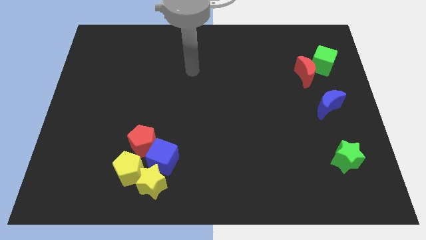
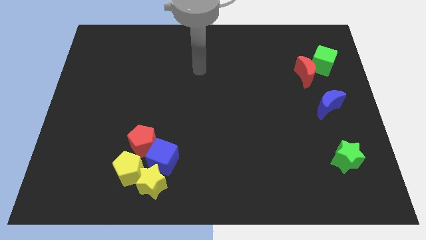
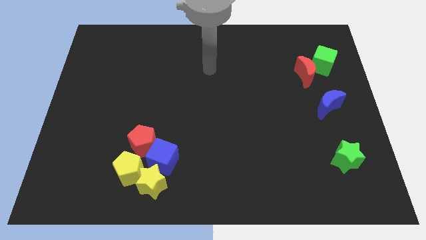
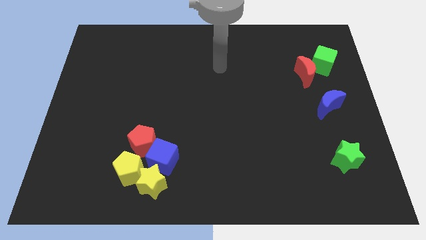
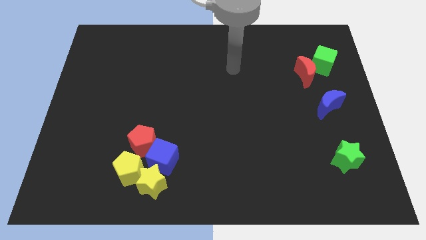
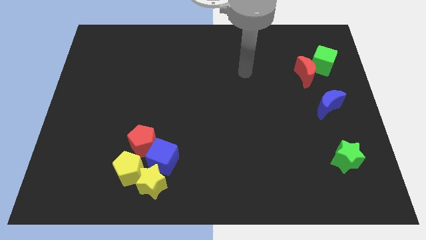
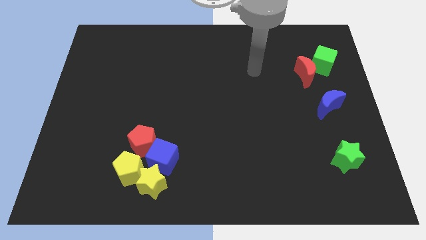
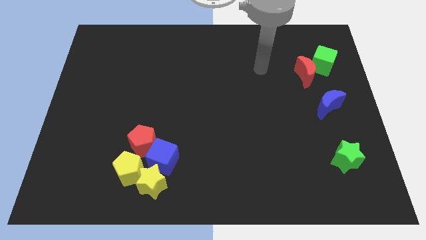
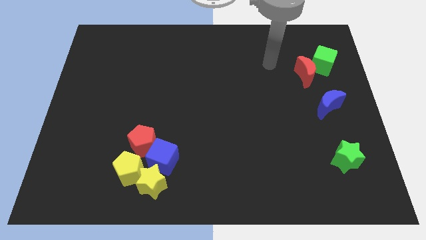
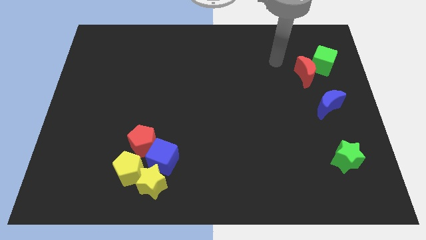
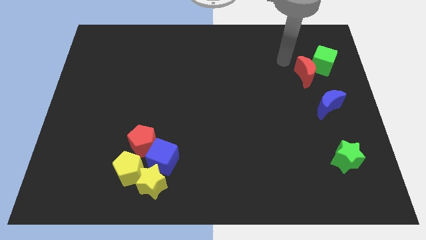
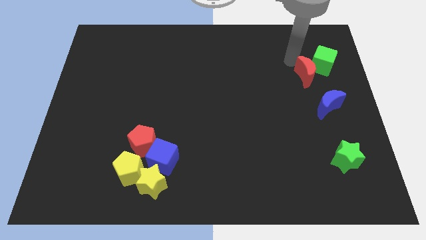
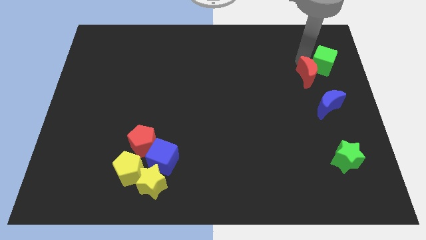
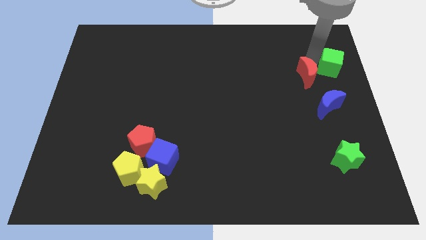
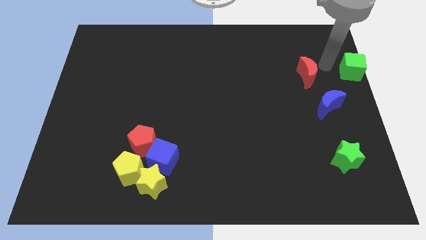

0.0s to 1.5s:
move the red moon away from the green cube

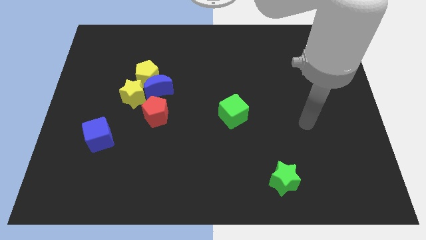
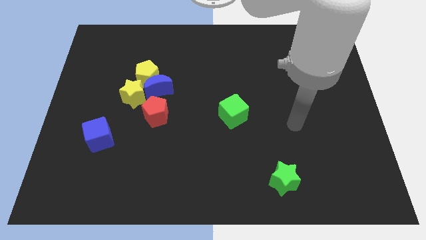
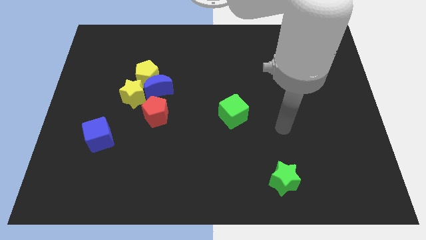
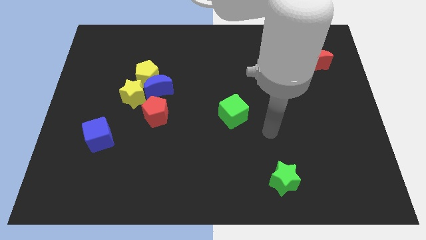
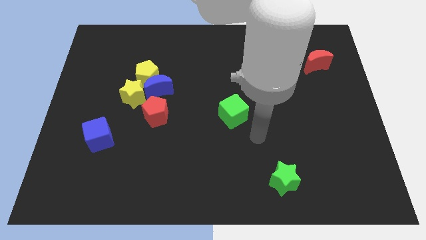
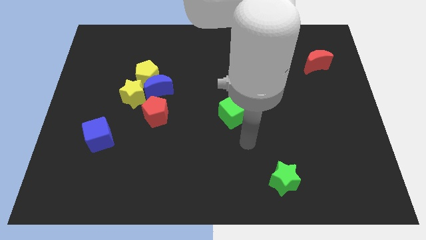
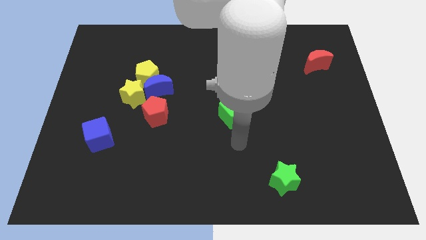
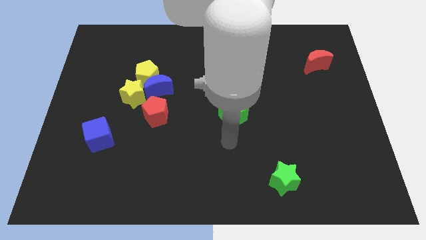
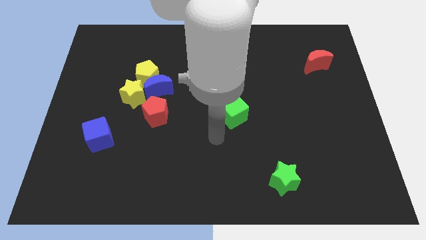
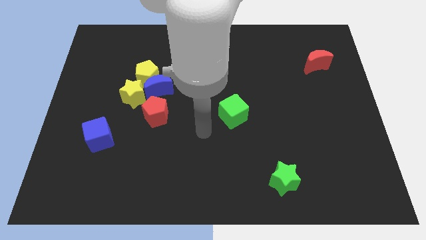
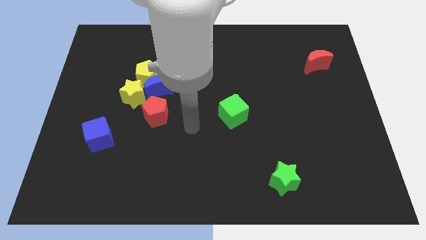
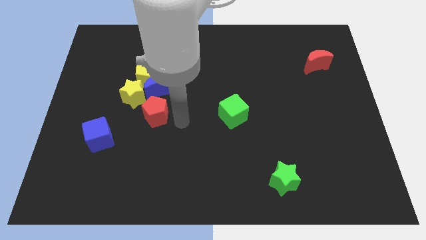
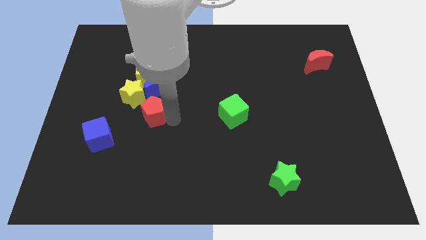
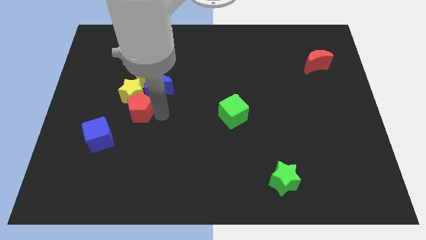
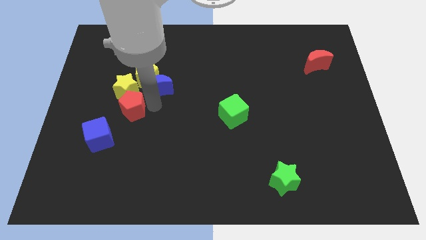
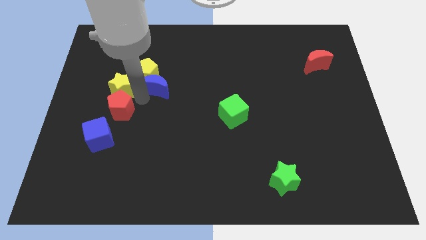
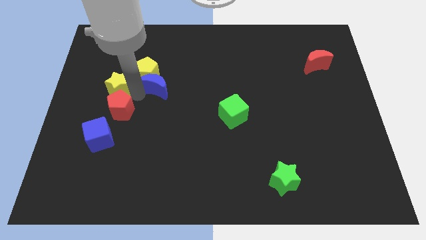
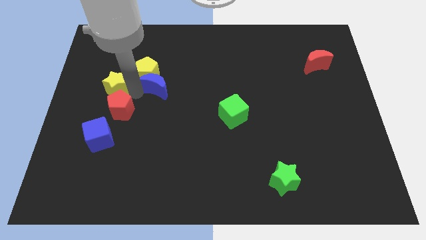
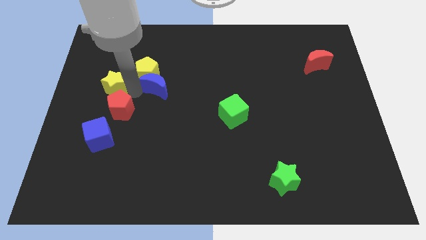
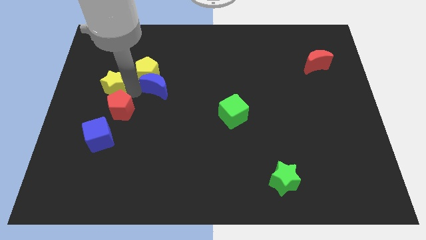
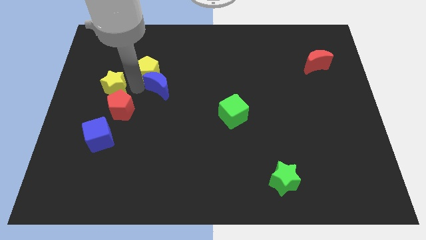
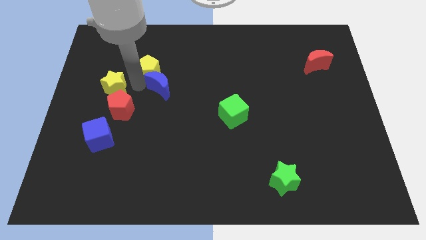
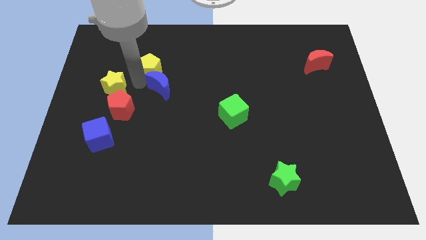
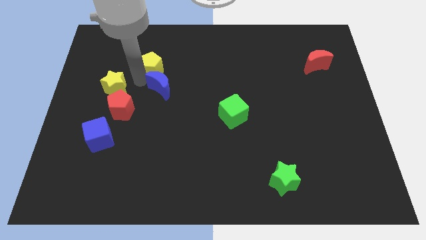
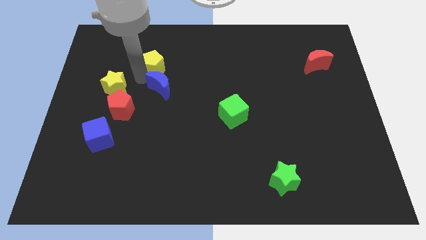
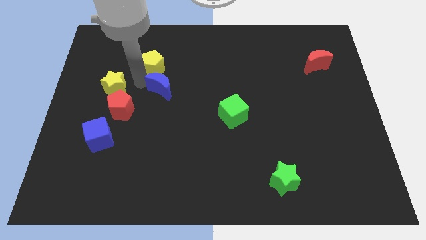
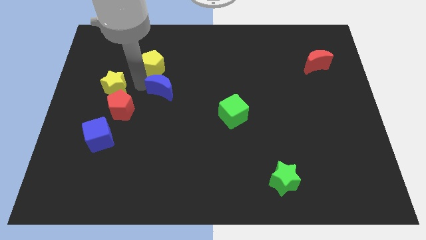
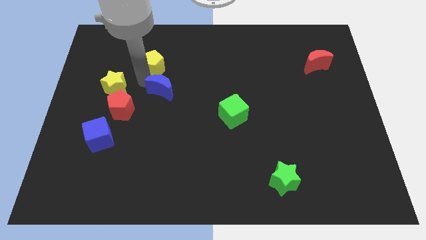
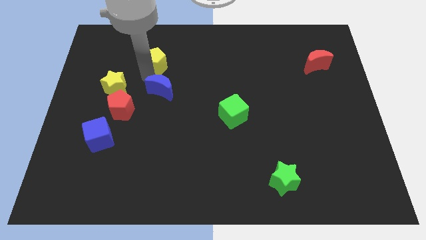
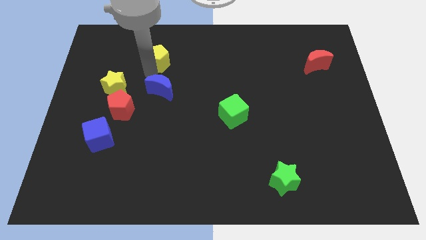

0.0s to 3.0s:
separate the yellow pentagon from the blue moon and yellow star

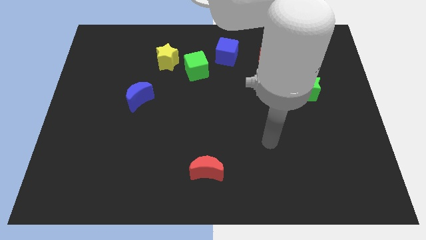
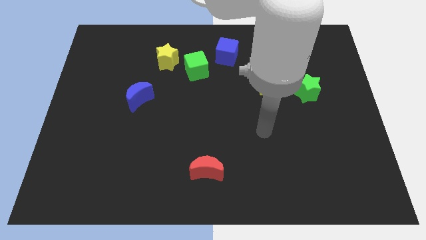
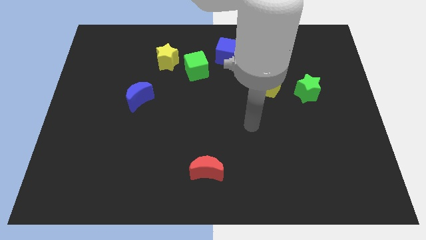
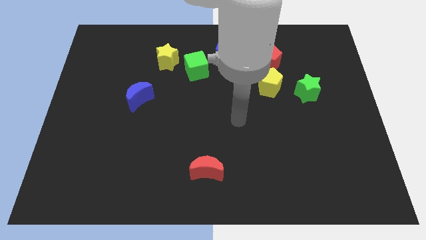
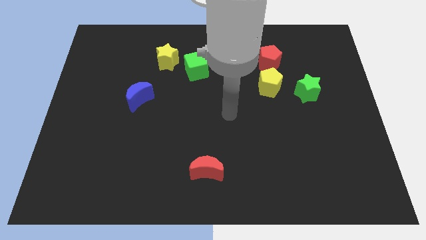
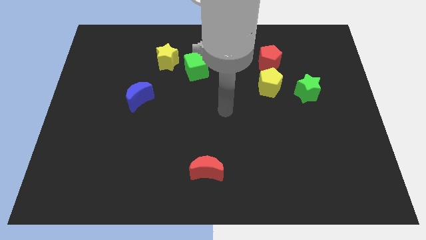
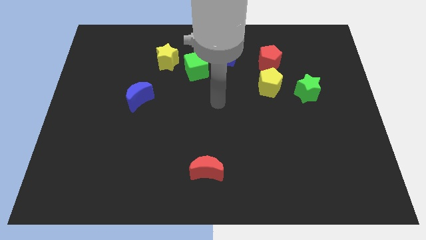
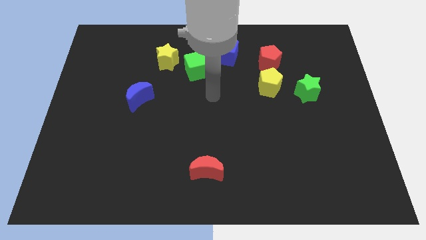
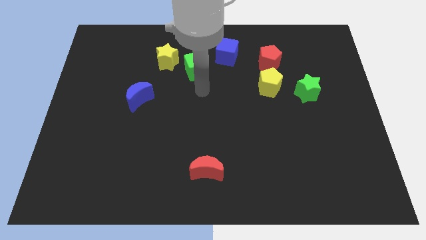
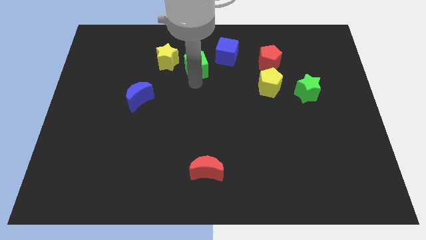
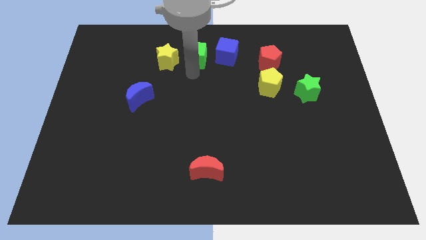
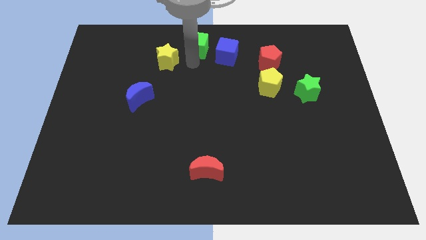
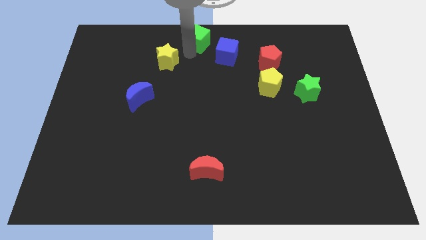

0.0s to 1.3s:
separate the yellow star from the green cube

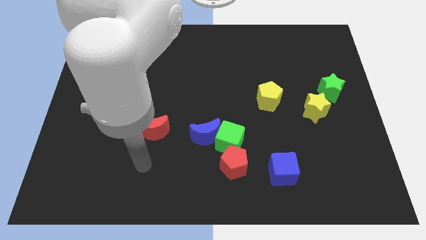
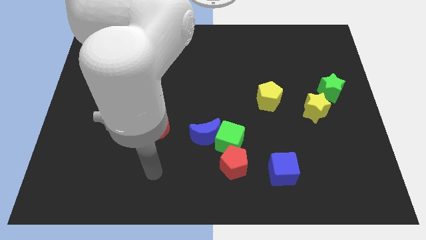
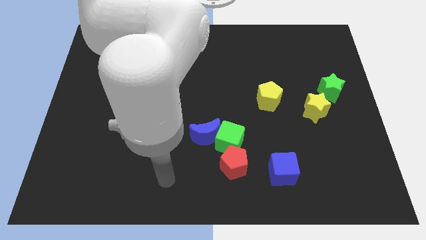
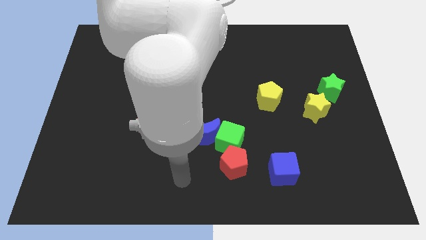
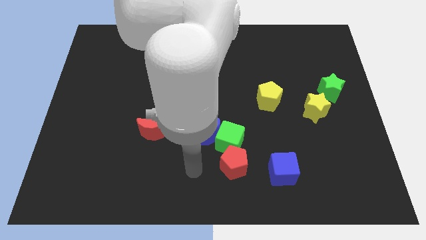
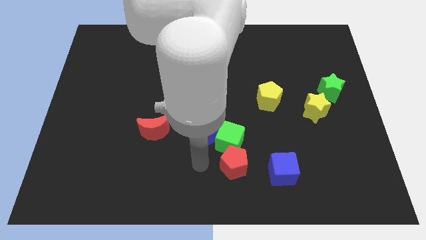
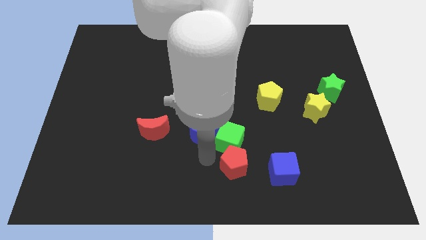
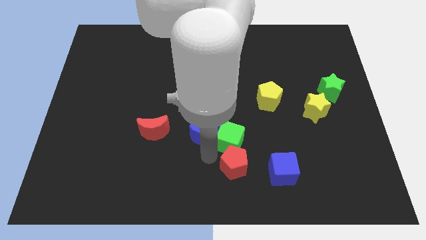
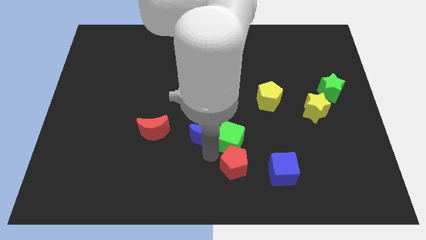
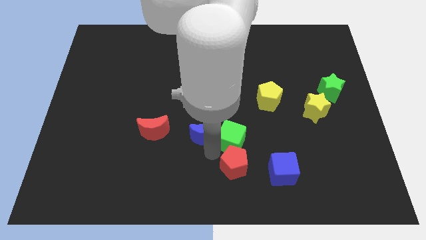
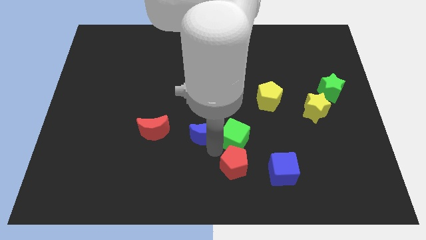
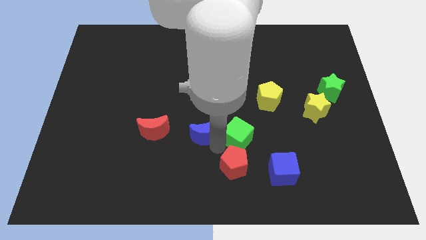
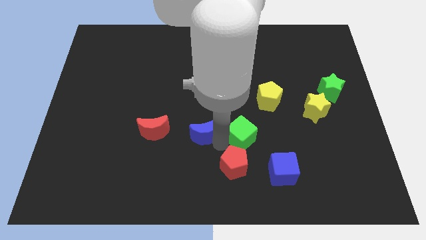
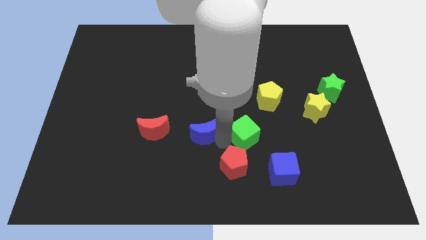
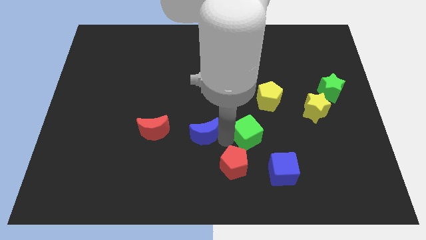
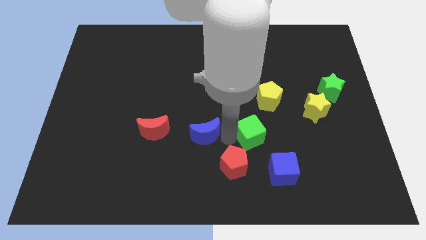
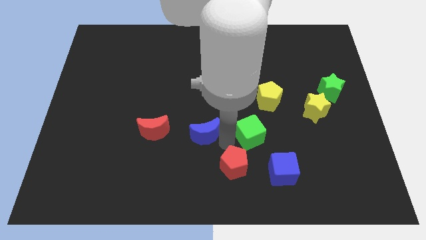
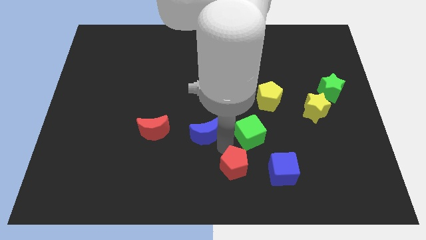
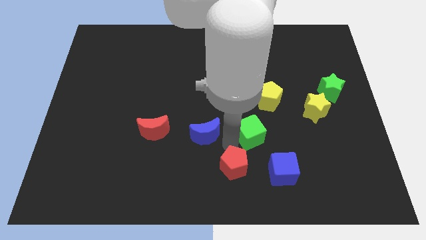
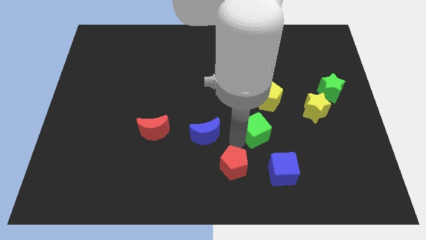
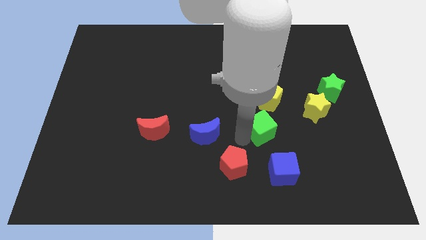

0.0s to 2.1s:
pull the green cube apart from the blue moon and red pentagon

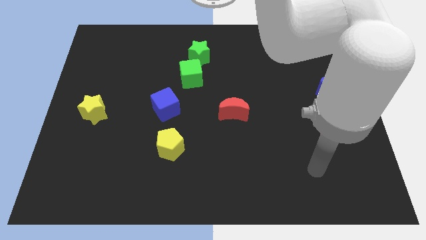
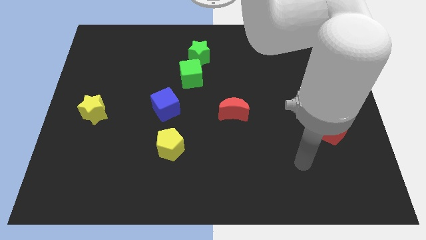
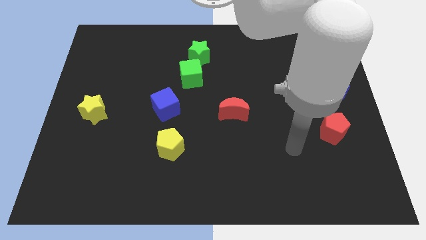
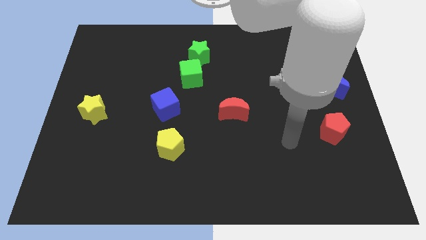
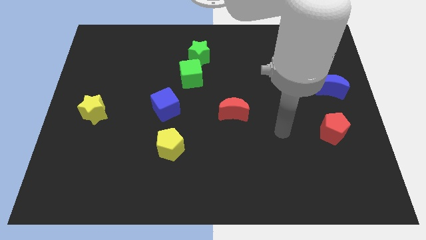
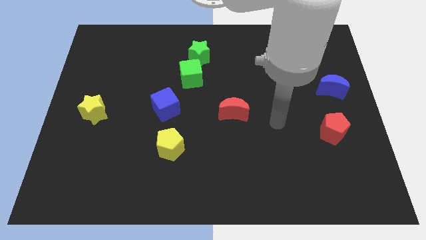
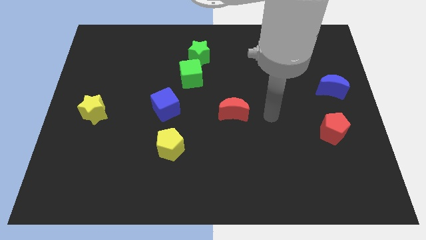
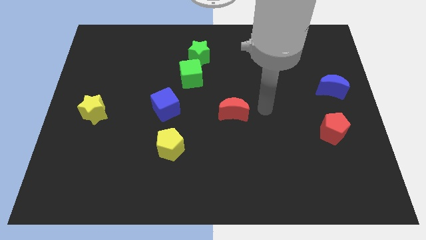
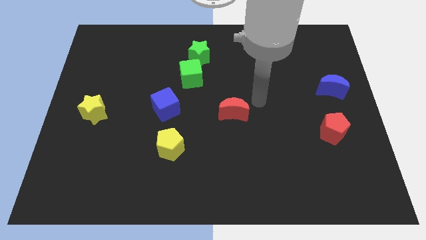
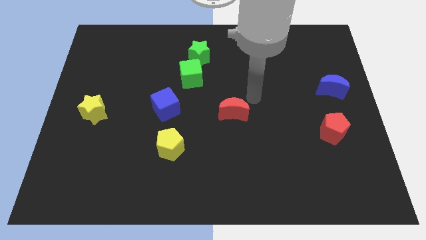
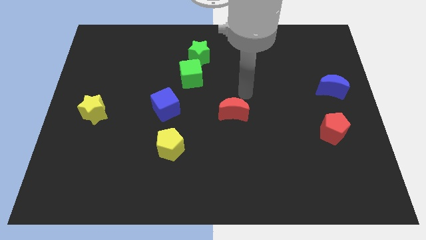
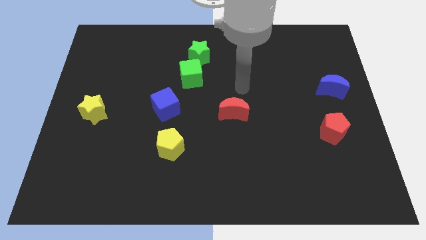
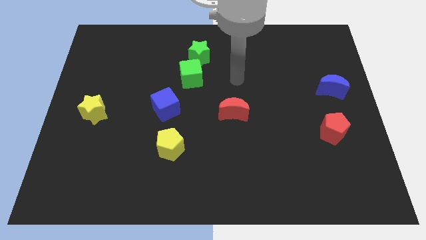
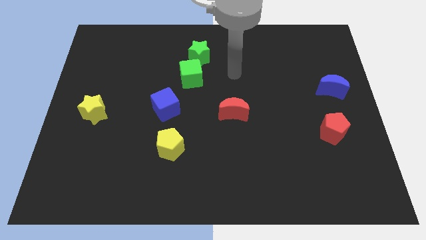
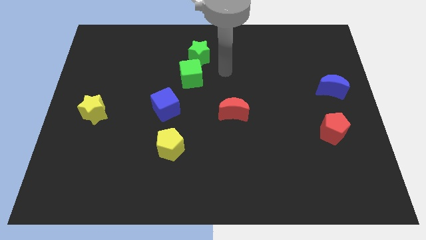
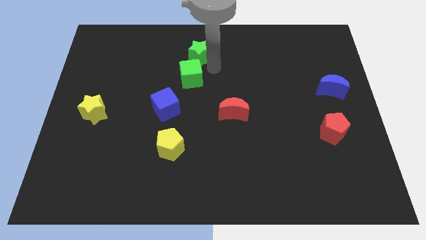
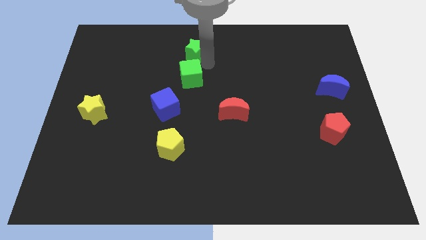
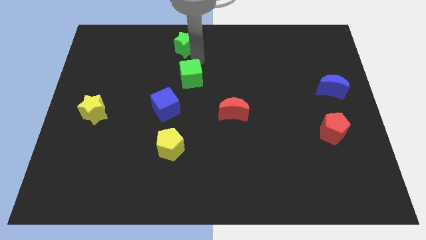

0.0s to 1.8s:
pull the green cube apart from the green star
